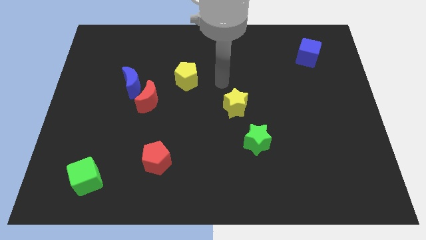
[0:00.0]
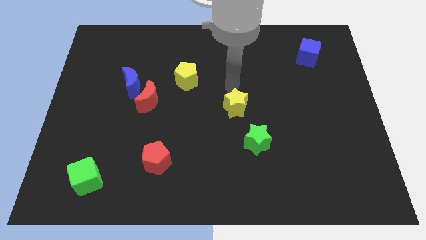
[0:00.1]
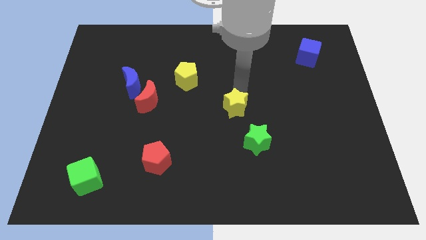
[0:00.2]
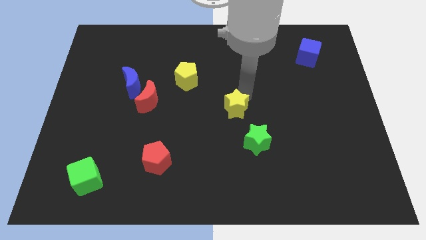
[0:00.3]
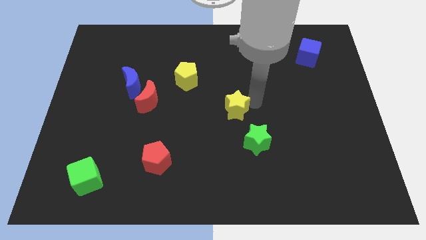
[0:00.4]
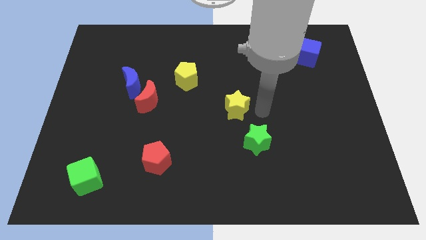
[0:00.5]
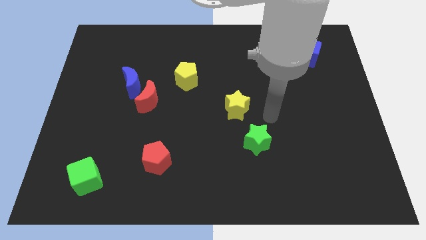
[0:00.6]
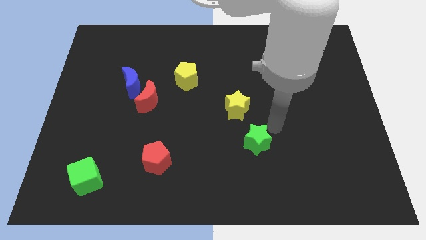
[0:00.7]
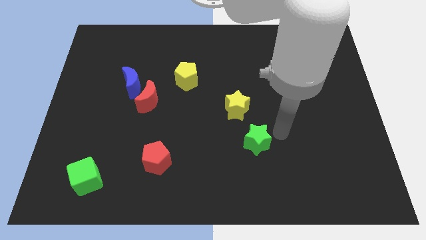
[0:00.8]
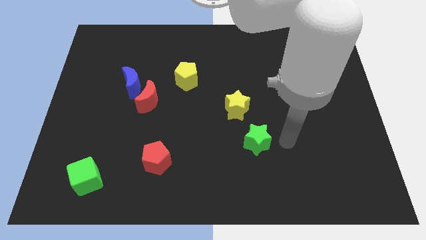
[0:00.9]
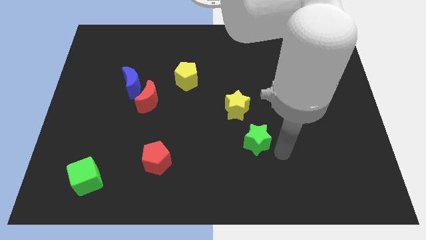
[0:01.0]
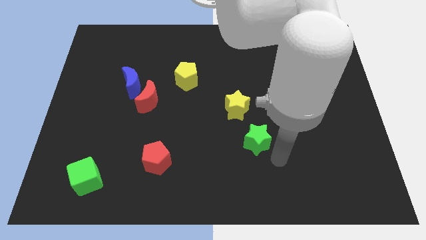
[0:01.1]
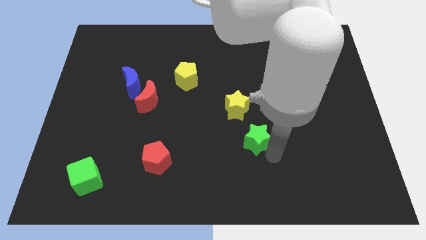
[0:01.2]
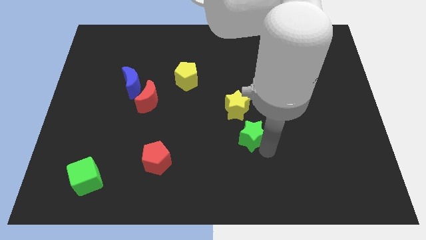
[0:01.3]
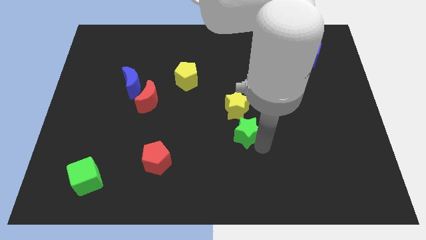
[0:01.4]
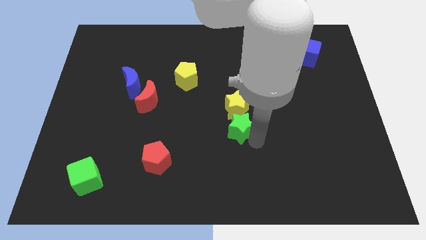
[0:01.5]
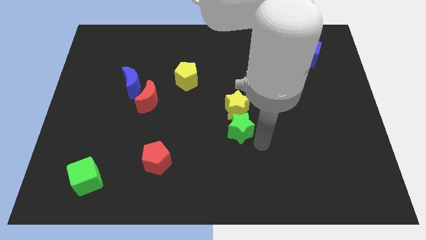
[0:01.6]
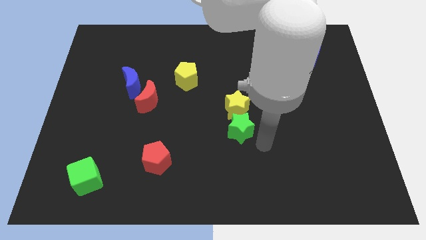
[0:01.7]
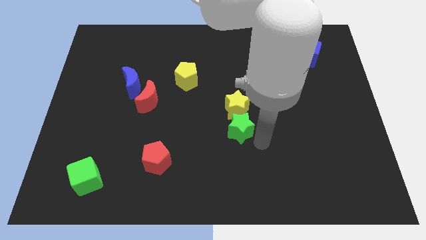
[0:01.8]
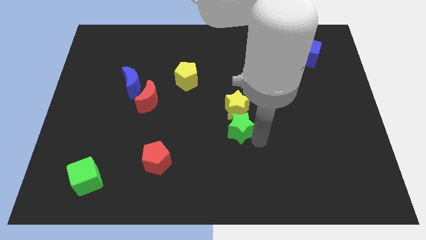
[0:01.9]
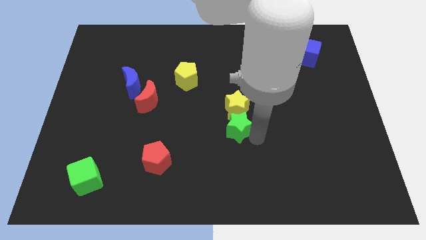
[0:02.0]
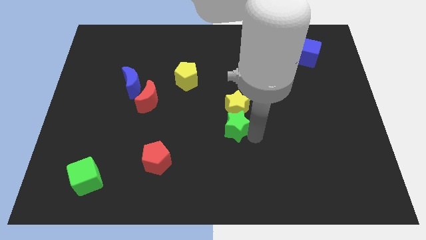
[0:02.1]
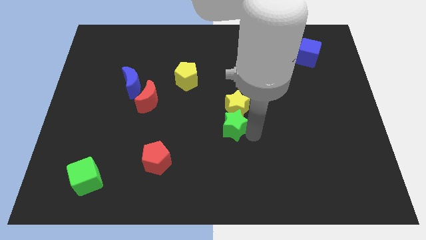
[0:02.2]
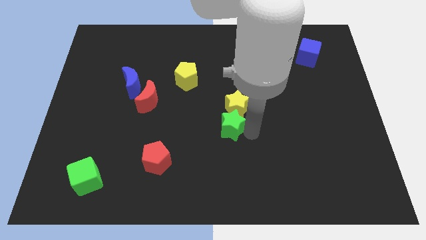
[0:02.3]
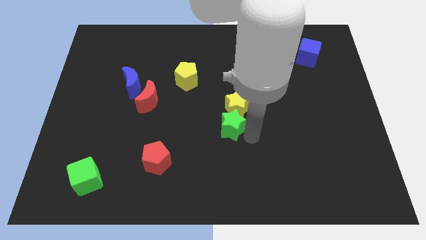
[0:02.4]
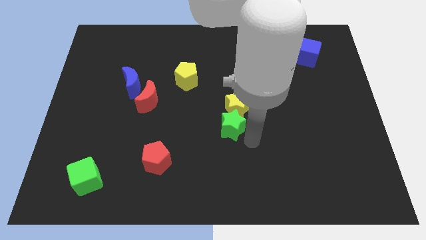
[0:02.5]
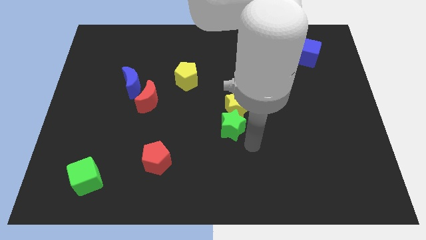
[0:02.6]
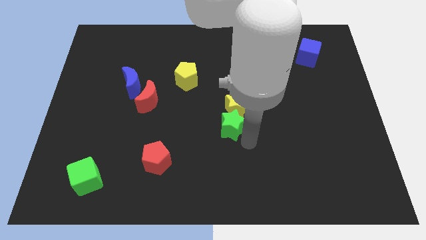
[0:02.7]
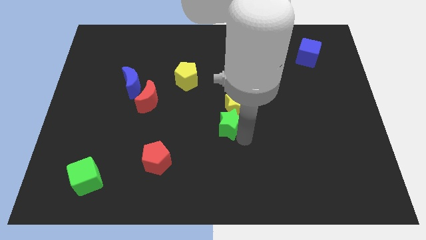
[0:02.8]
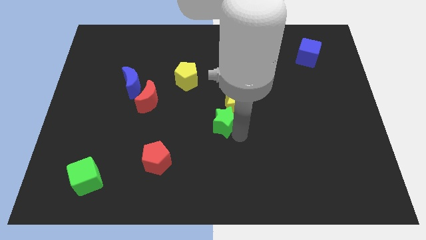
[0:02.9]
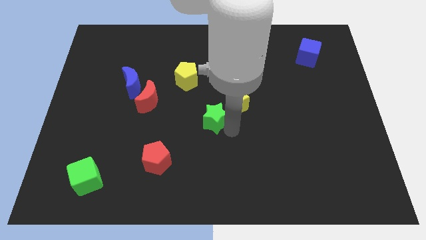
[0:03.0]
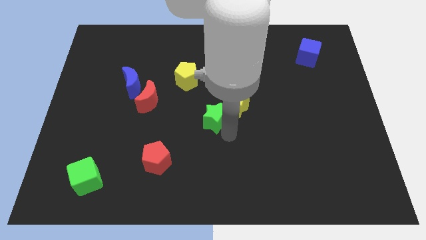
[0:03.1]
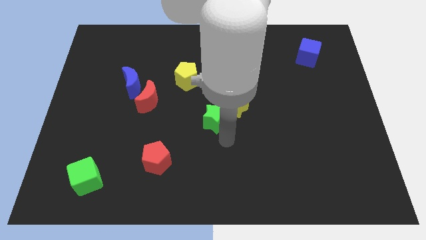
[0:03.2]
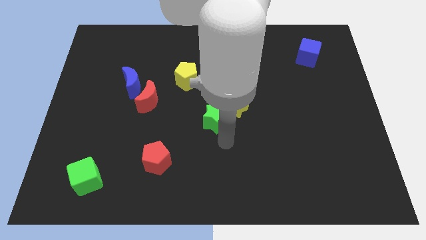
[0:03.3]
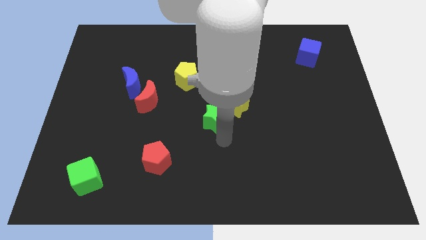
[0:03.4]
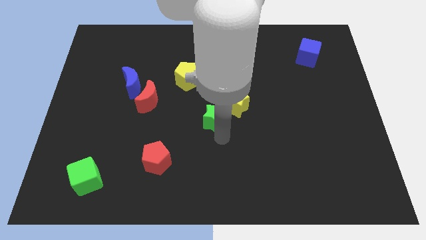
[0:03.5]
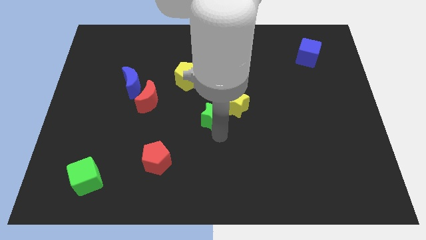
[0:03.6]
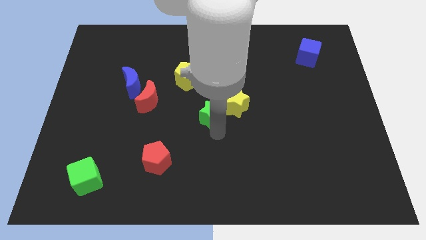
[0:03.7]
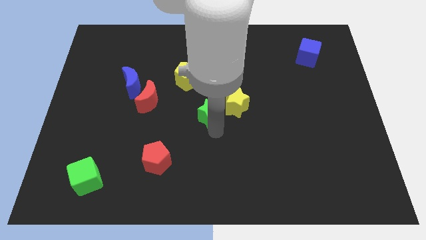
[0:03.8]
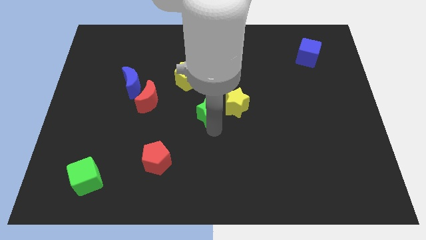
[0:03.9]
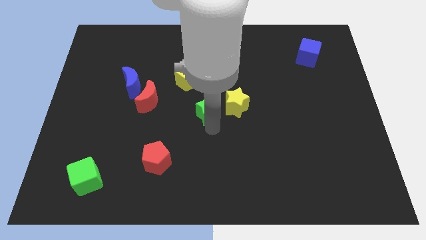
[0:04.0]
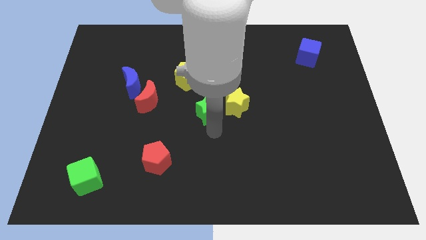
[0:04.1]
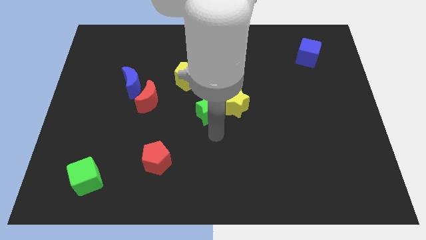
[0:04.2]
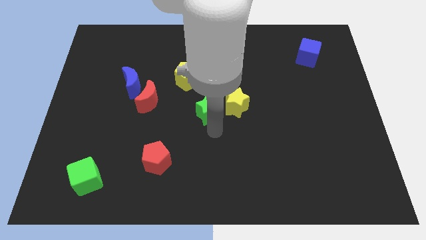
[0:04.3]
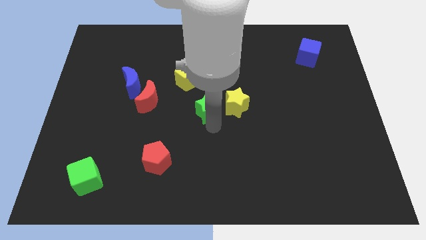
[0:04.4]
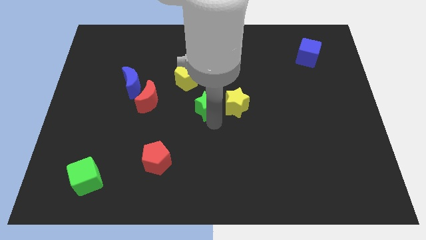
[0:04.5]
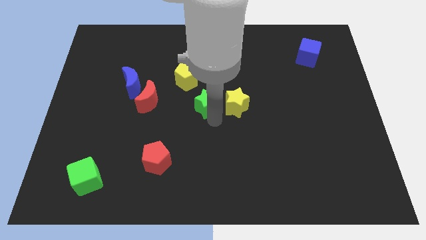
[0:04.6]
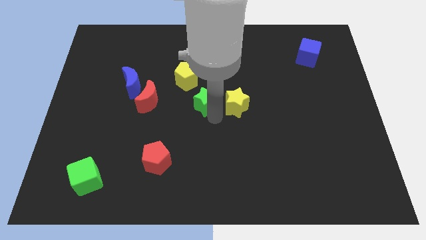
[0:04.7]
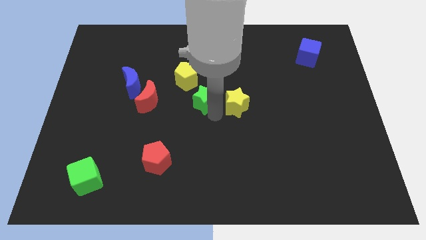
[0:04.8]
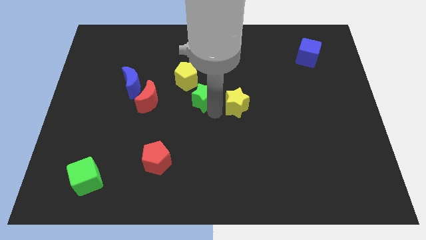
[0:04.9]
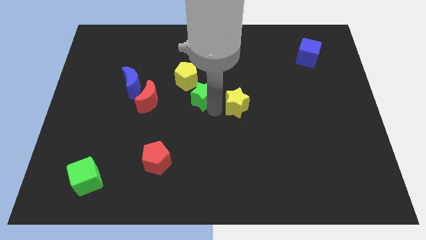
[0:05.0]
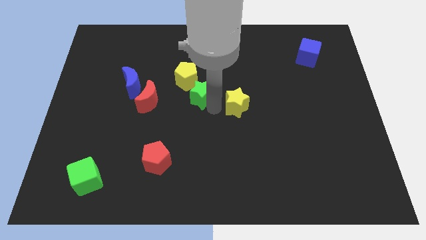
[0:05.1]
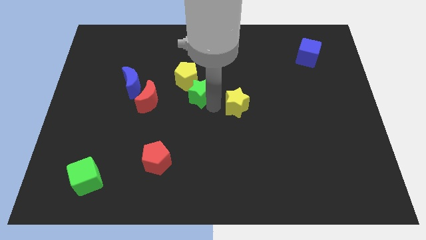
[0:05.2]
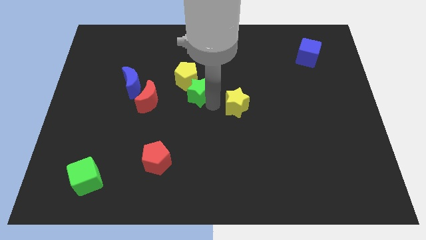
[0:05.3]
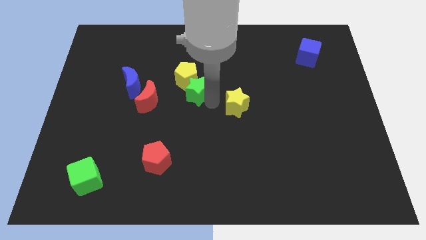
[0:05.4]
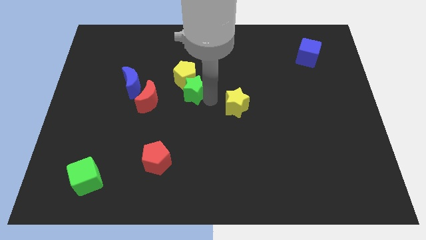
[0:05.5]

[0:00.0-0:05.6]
move the green star up and then left

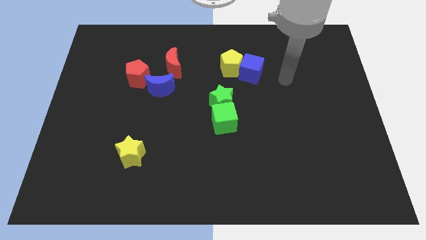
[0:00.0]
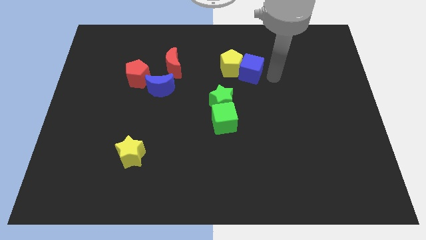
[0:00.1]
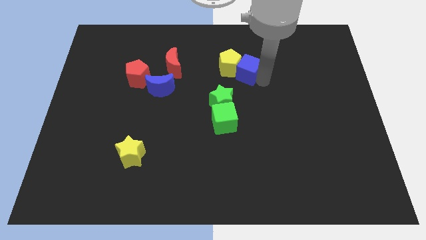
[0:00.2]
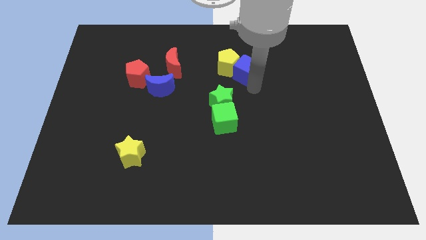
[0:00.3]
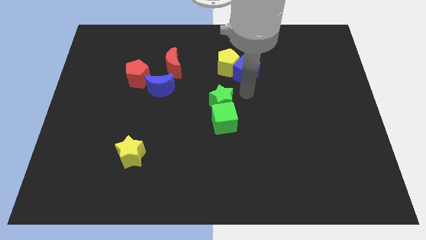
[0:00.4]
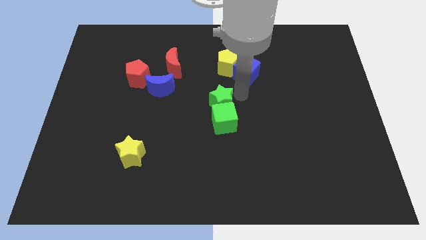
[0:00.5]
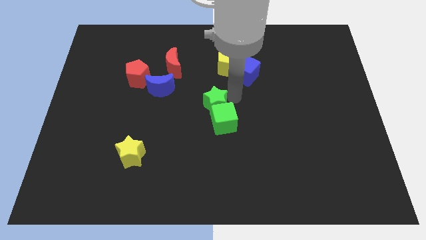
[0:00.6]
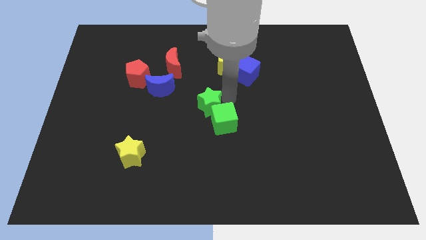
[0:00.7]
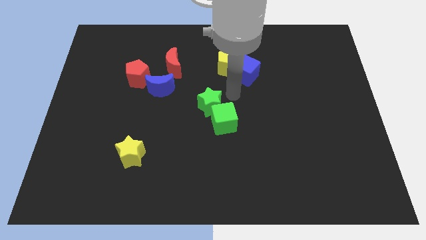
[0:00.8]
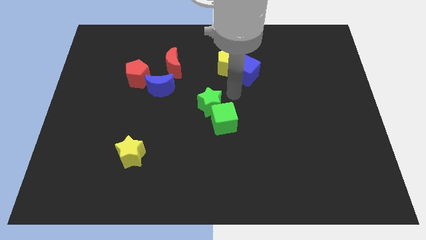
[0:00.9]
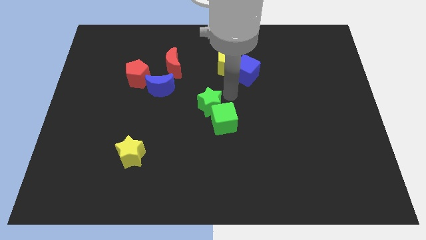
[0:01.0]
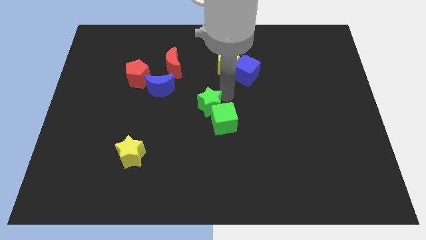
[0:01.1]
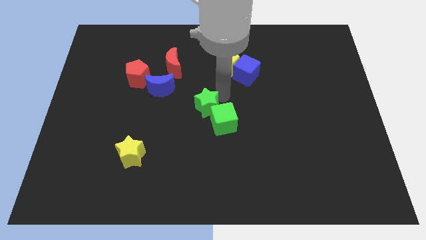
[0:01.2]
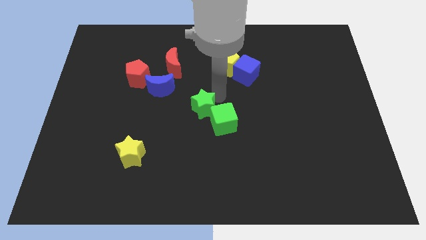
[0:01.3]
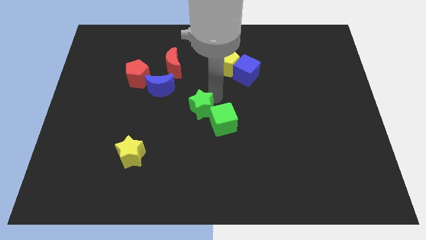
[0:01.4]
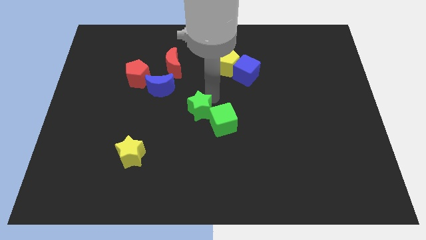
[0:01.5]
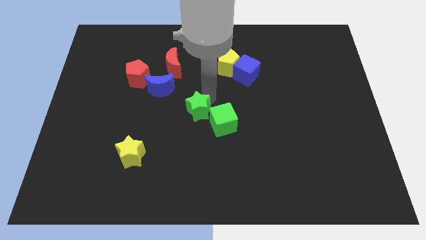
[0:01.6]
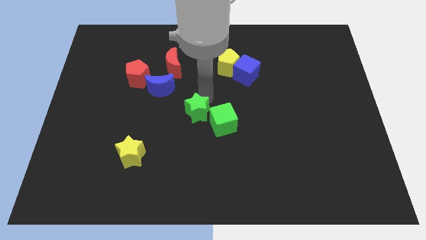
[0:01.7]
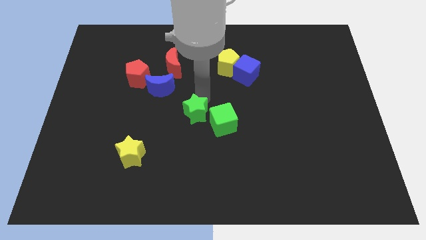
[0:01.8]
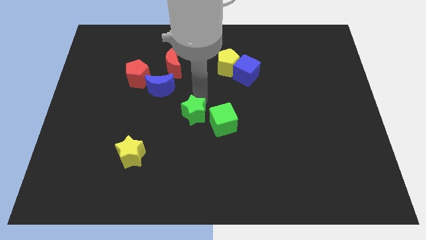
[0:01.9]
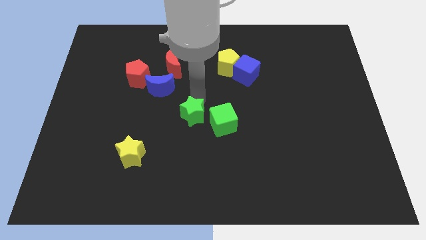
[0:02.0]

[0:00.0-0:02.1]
push the green star down and to the left a little bit

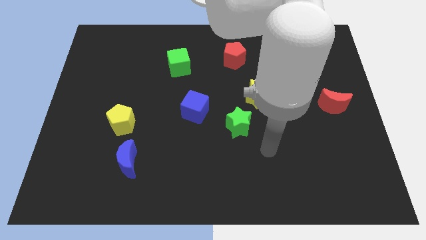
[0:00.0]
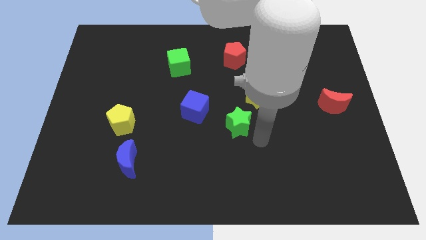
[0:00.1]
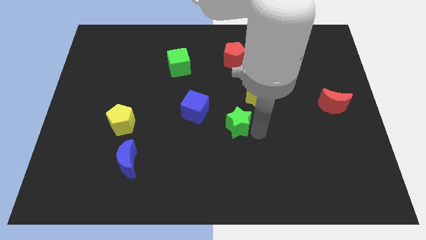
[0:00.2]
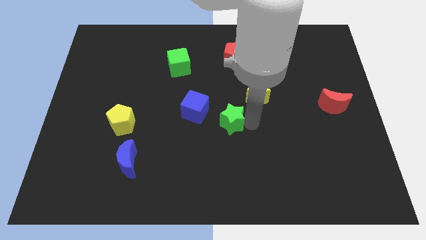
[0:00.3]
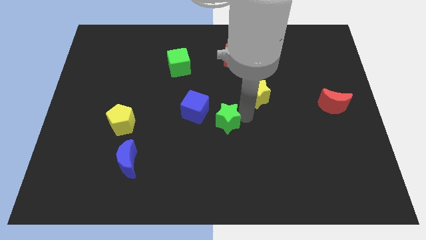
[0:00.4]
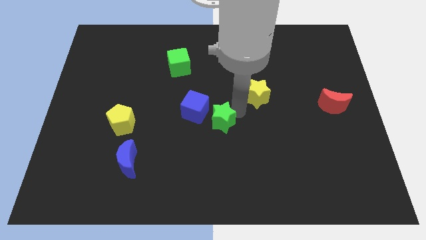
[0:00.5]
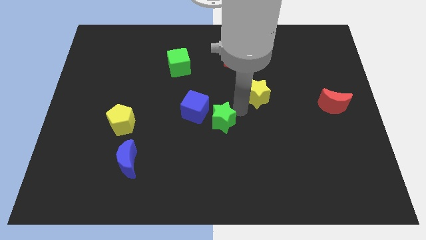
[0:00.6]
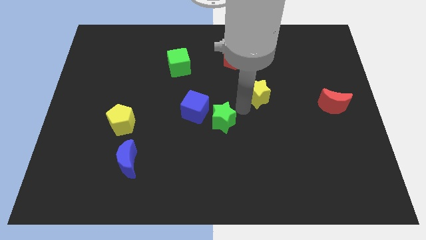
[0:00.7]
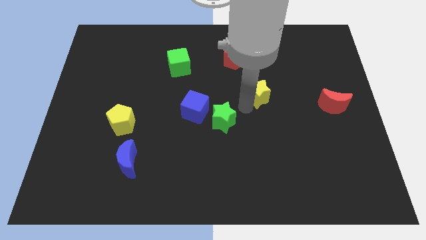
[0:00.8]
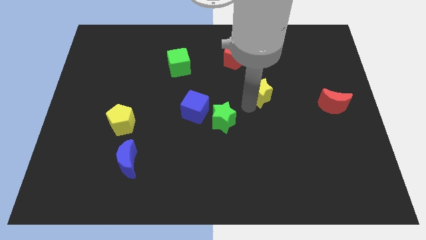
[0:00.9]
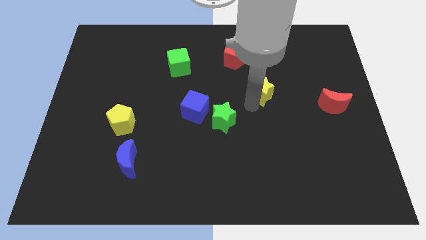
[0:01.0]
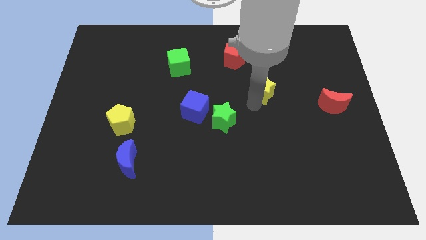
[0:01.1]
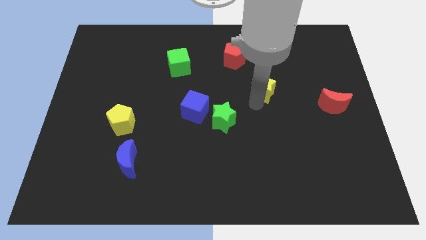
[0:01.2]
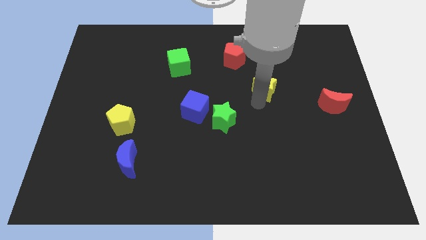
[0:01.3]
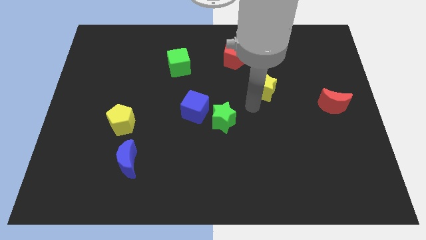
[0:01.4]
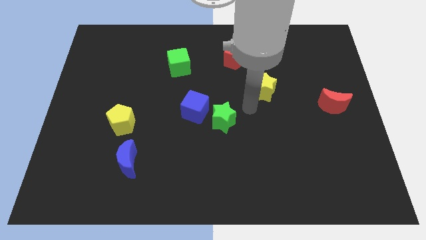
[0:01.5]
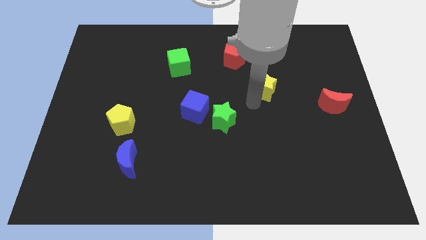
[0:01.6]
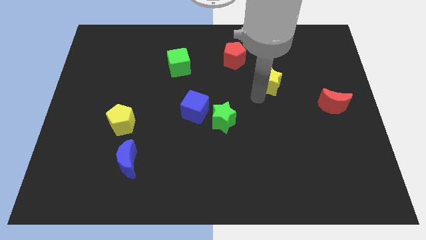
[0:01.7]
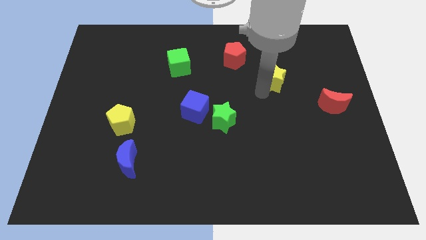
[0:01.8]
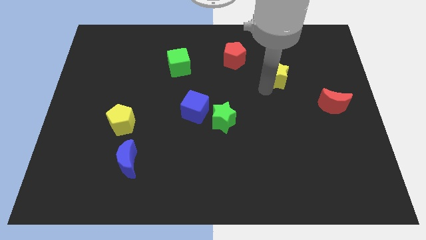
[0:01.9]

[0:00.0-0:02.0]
slightly push the yellow star upwards and then right
